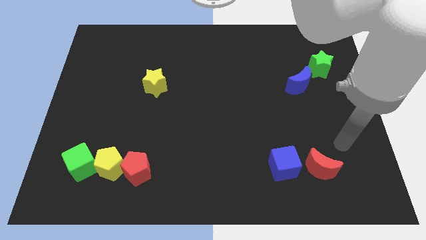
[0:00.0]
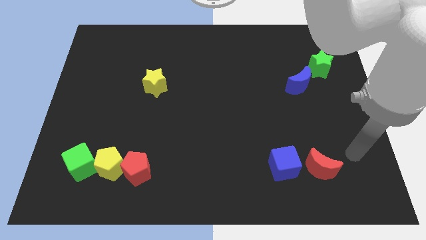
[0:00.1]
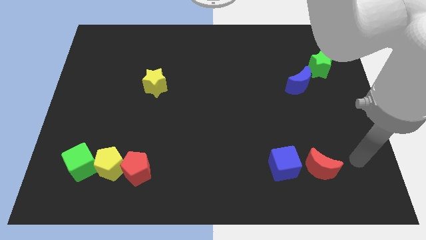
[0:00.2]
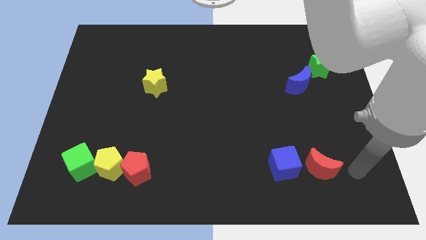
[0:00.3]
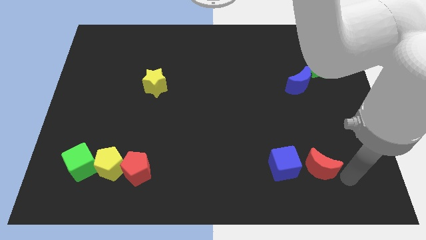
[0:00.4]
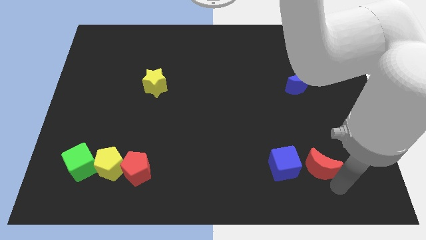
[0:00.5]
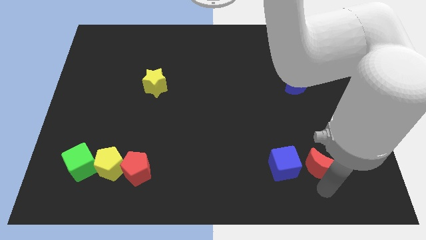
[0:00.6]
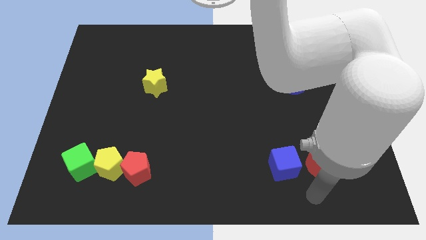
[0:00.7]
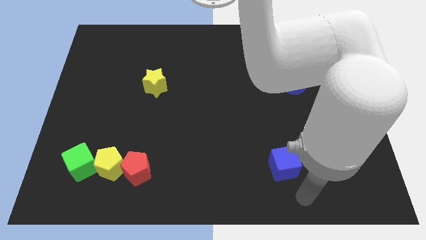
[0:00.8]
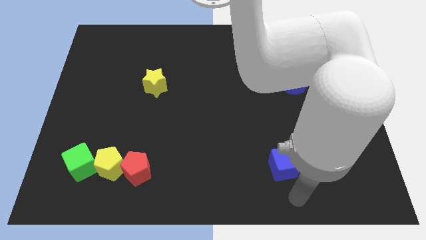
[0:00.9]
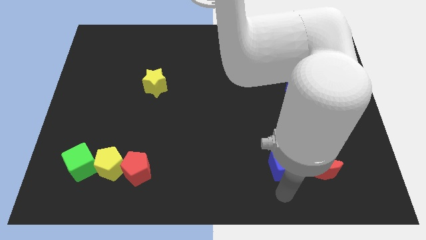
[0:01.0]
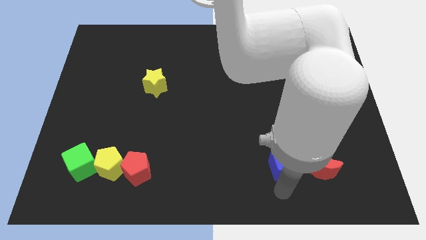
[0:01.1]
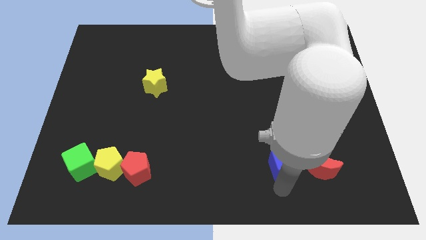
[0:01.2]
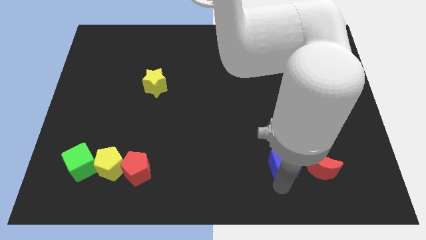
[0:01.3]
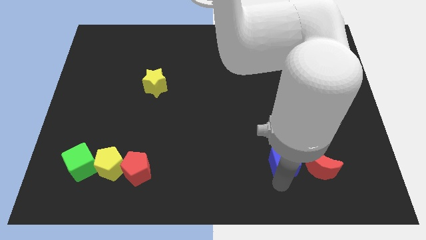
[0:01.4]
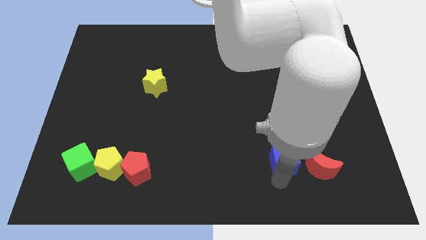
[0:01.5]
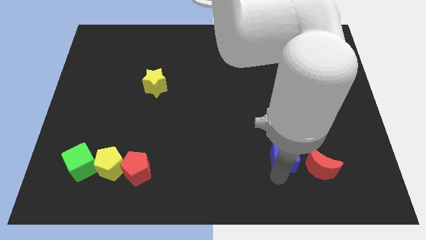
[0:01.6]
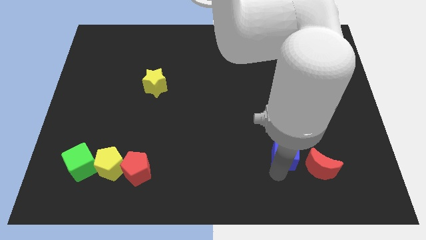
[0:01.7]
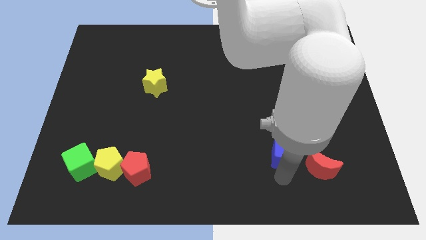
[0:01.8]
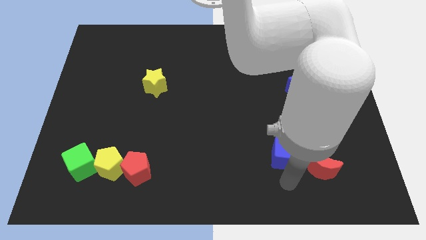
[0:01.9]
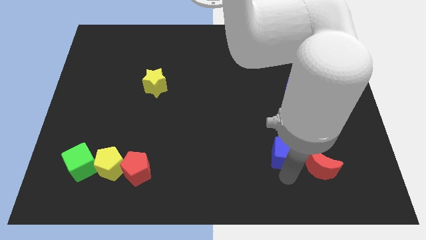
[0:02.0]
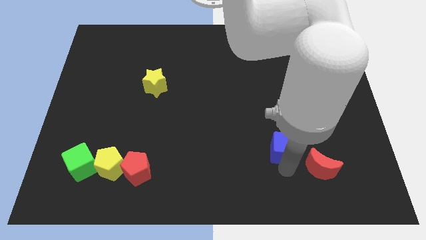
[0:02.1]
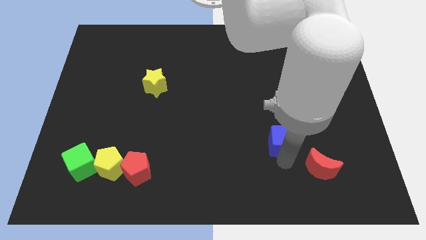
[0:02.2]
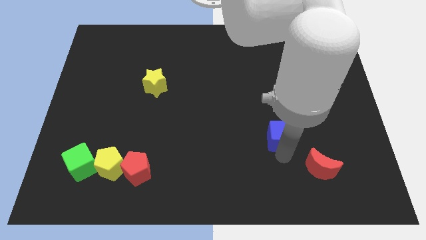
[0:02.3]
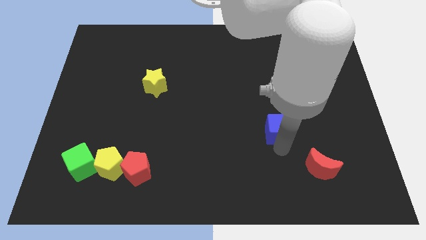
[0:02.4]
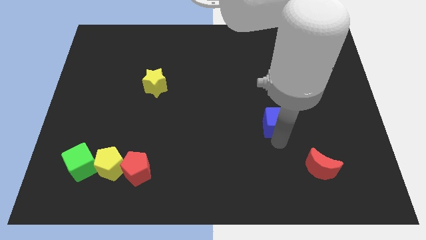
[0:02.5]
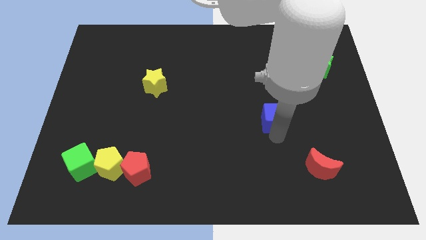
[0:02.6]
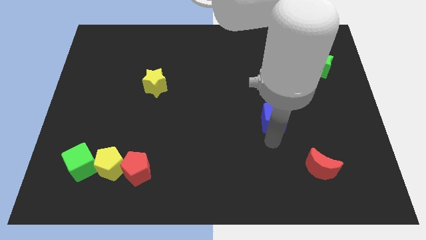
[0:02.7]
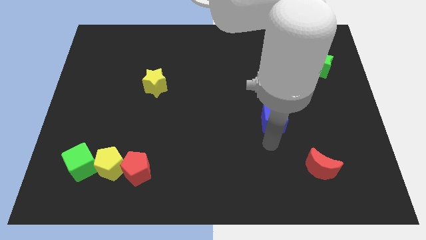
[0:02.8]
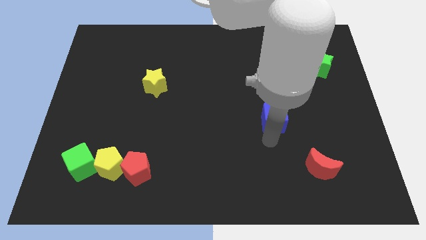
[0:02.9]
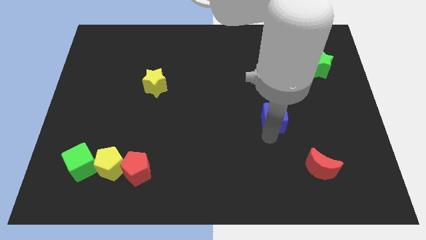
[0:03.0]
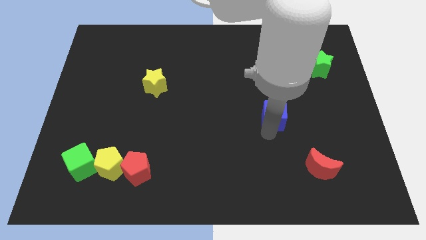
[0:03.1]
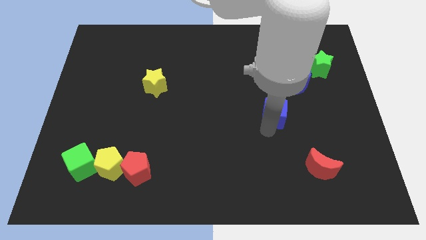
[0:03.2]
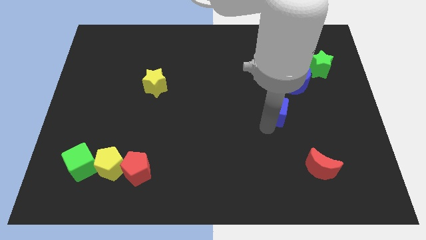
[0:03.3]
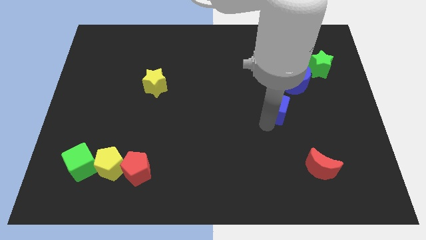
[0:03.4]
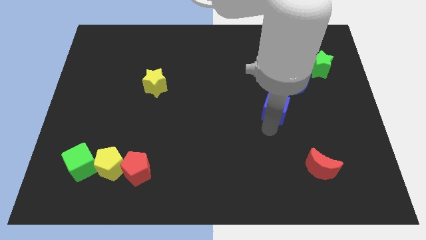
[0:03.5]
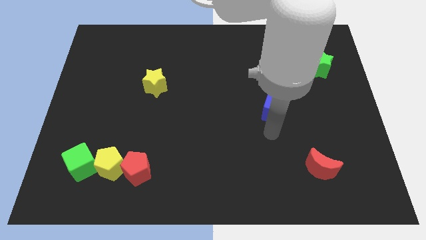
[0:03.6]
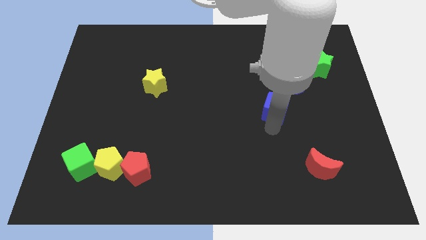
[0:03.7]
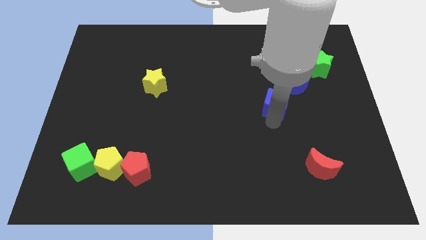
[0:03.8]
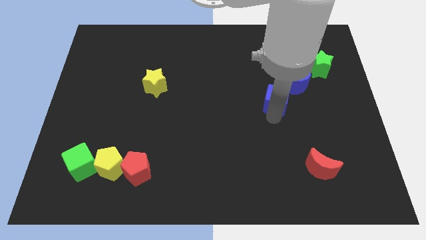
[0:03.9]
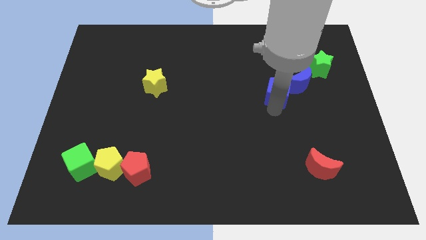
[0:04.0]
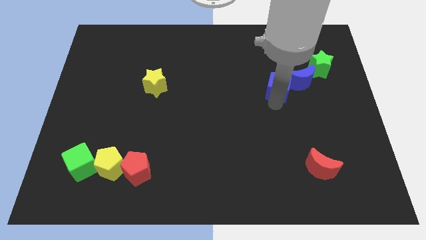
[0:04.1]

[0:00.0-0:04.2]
push the blue cube up

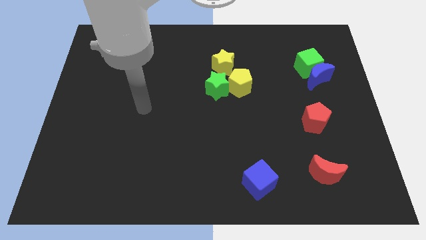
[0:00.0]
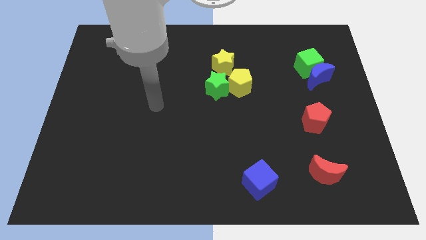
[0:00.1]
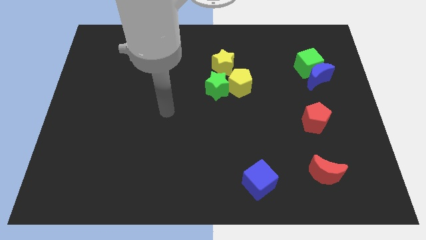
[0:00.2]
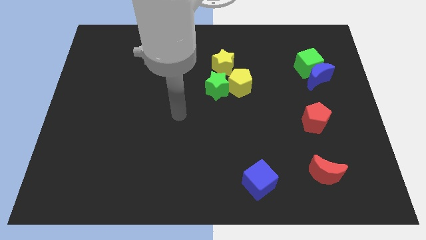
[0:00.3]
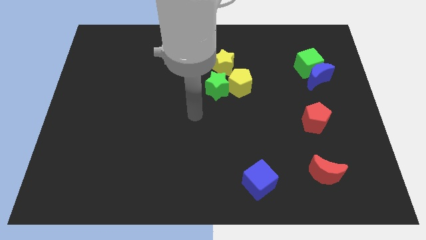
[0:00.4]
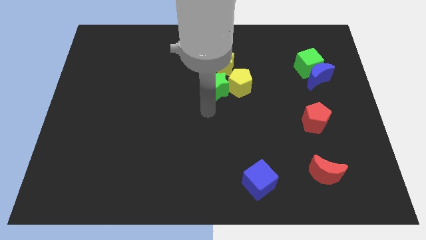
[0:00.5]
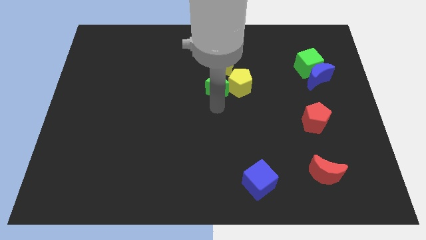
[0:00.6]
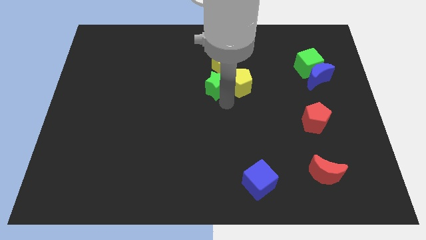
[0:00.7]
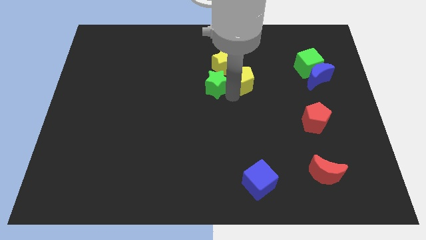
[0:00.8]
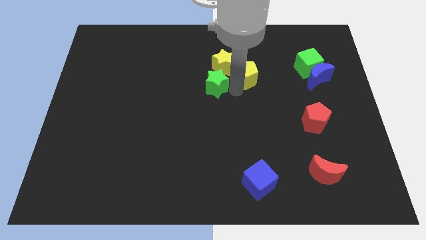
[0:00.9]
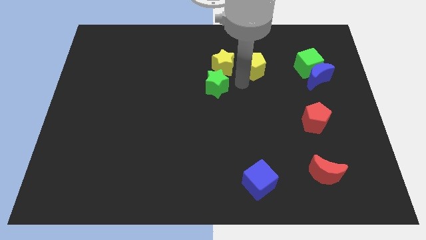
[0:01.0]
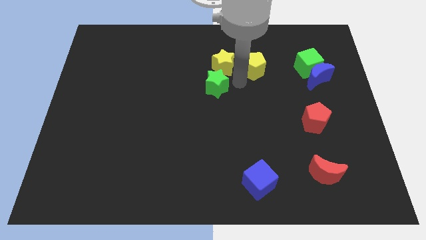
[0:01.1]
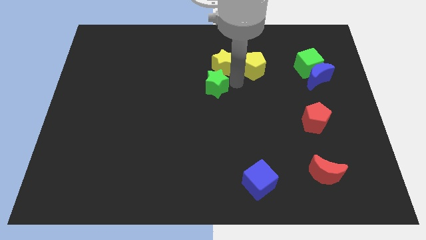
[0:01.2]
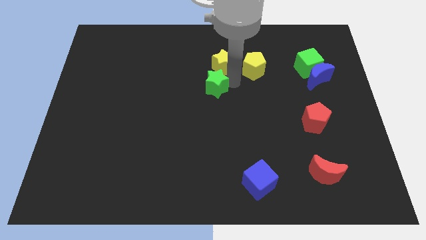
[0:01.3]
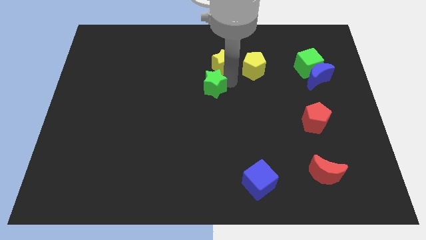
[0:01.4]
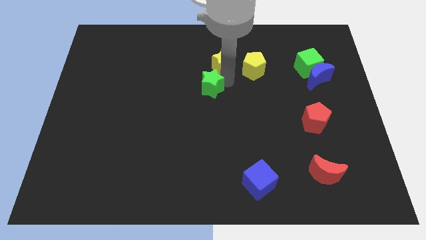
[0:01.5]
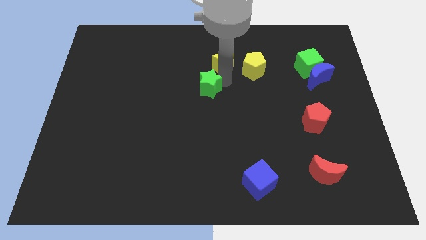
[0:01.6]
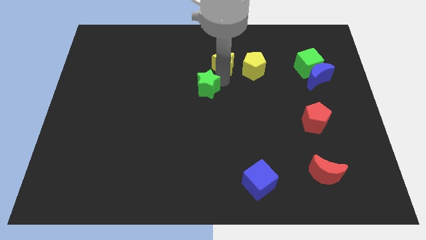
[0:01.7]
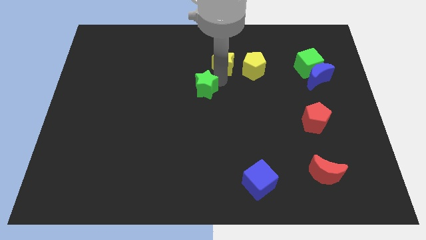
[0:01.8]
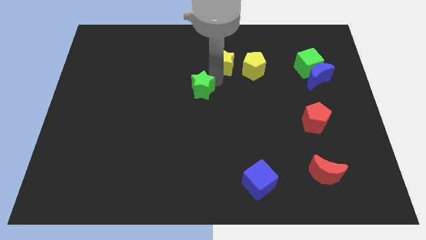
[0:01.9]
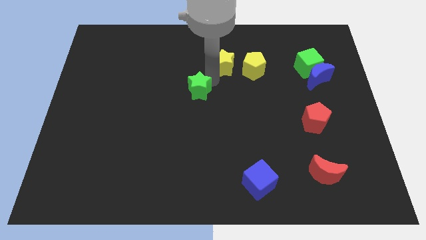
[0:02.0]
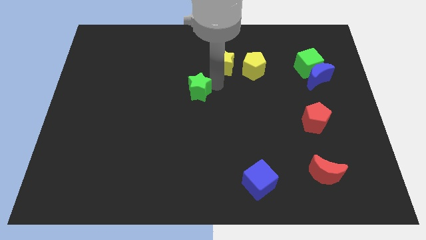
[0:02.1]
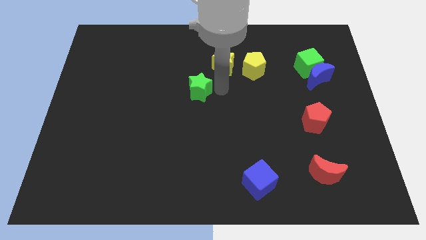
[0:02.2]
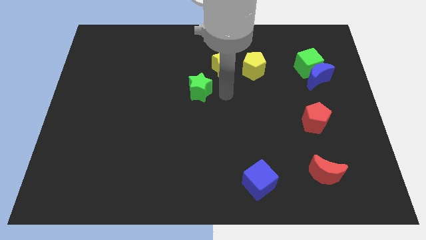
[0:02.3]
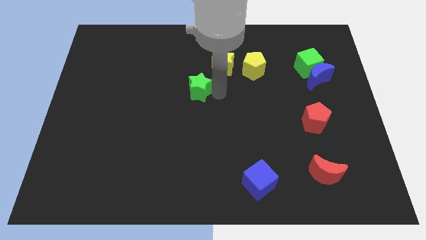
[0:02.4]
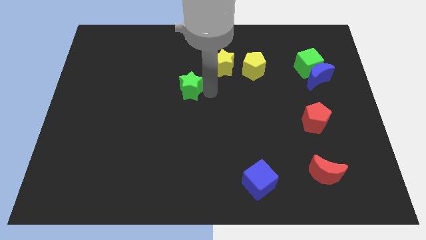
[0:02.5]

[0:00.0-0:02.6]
slightly move the green star to the left

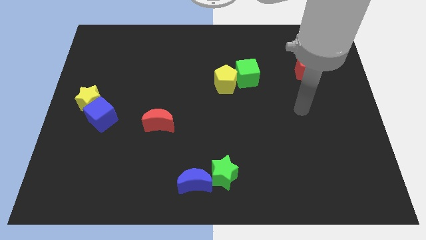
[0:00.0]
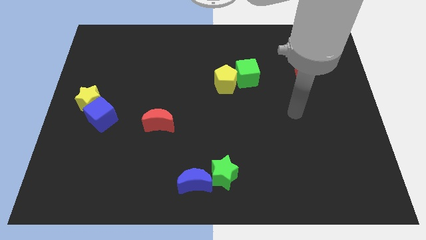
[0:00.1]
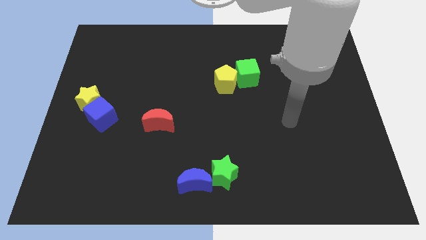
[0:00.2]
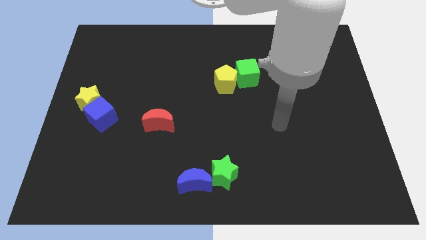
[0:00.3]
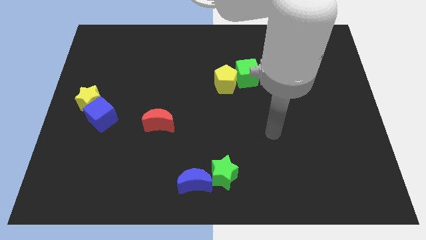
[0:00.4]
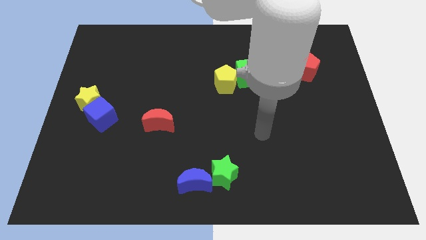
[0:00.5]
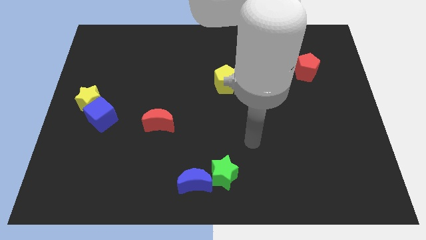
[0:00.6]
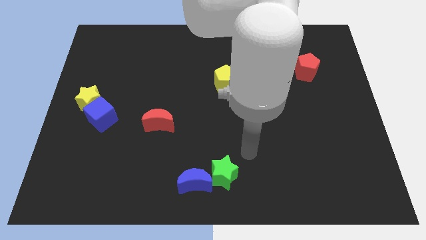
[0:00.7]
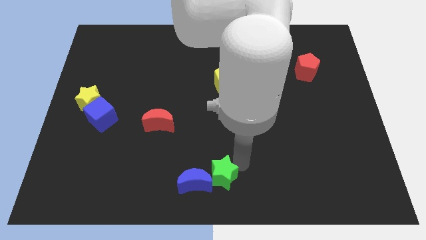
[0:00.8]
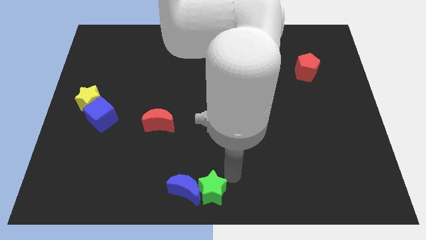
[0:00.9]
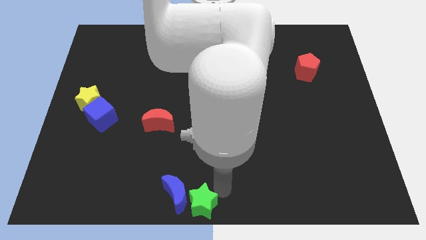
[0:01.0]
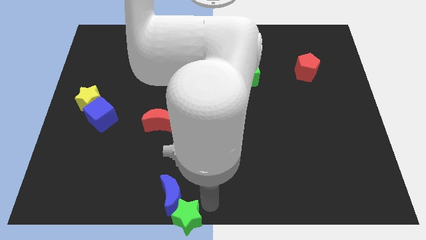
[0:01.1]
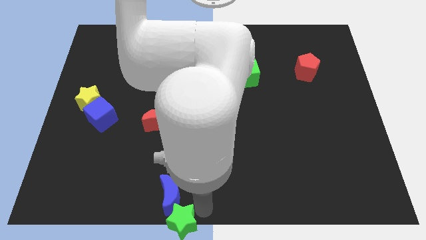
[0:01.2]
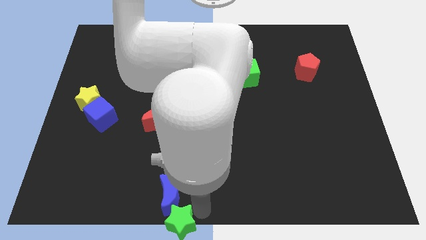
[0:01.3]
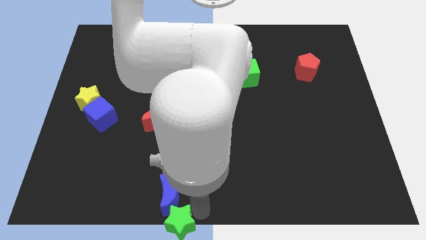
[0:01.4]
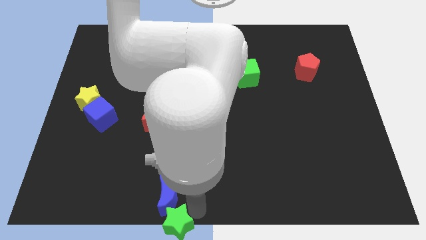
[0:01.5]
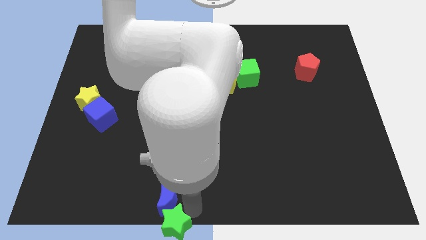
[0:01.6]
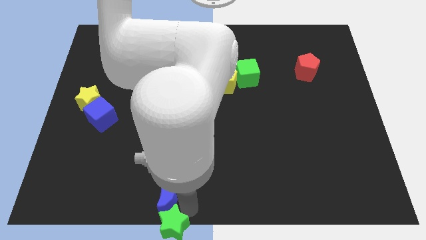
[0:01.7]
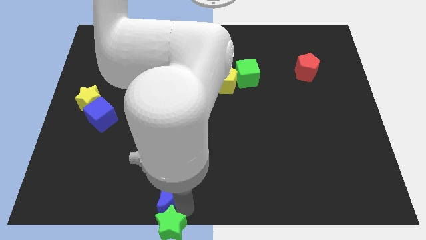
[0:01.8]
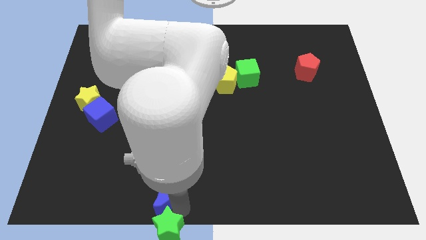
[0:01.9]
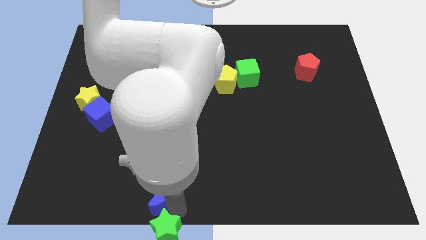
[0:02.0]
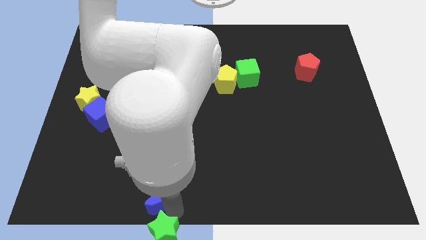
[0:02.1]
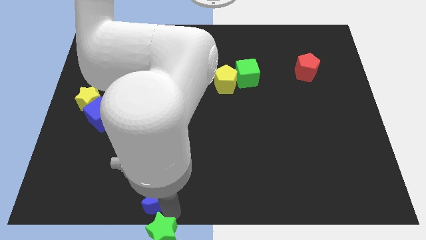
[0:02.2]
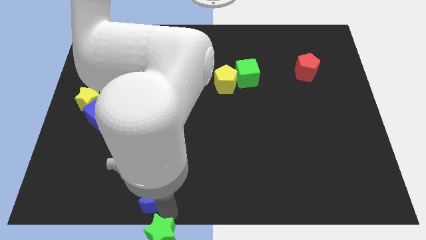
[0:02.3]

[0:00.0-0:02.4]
slightly push the blue moon to the left
